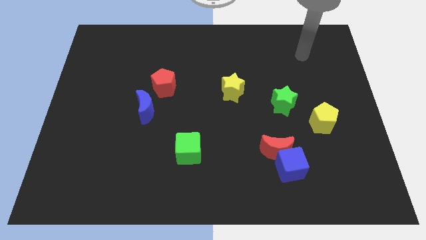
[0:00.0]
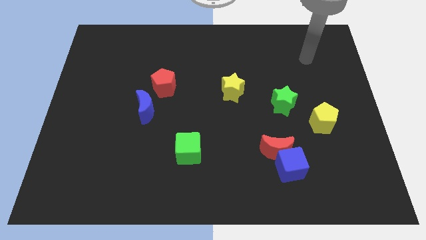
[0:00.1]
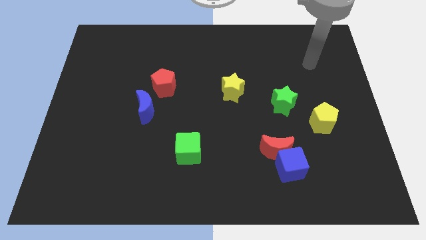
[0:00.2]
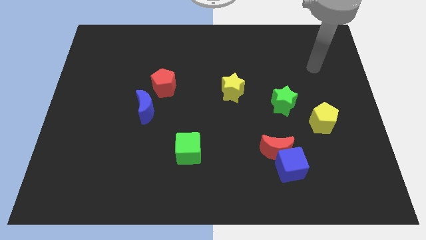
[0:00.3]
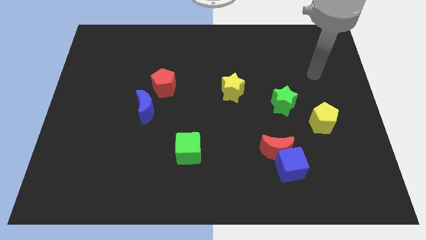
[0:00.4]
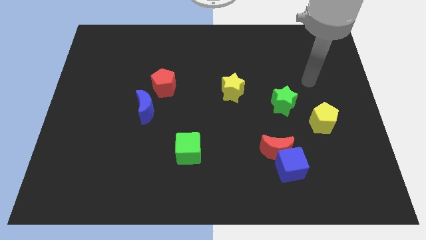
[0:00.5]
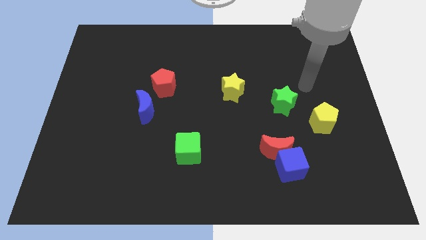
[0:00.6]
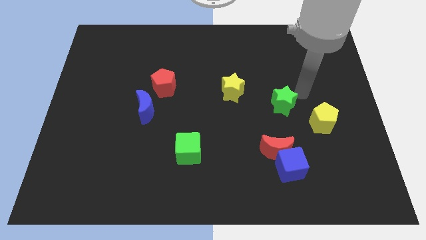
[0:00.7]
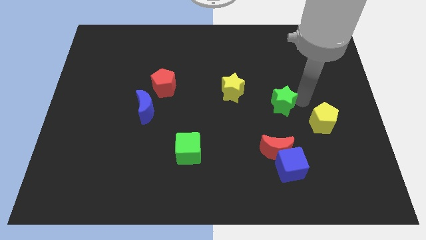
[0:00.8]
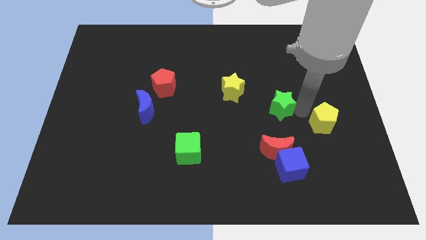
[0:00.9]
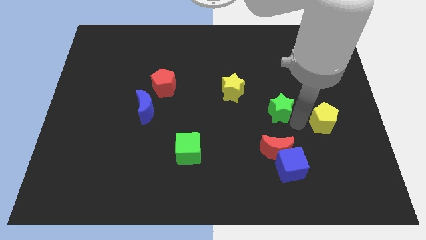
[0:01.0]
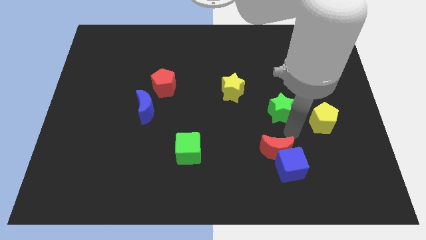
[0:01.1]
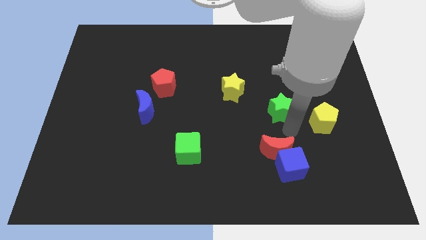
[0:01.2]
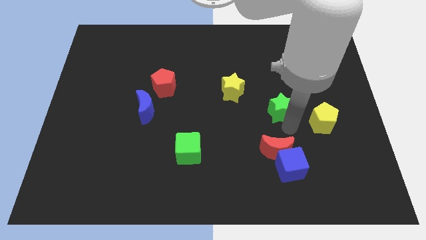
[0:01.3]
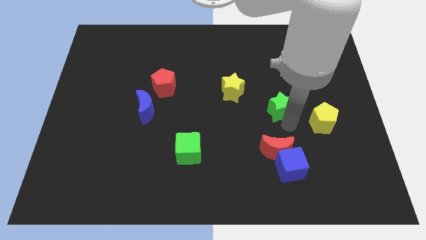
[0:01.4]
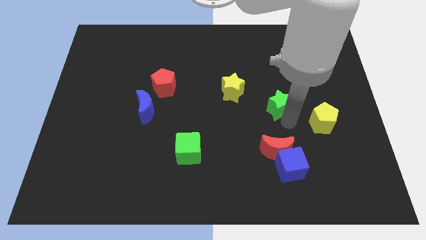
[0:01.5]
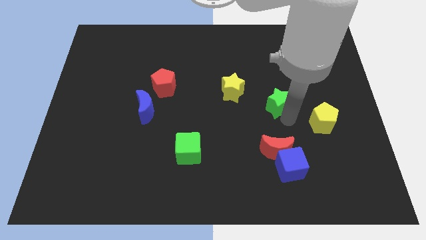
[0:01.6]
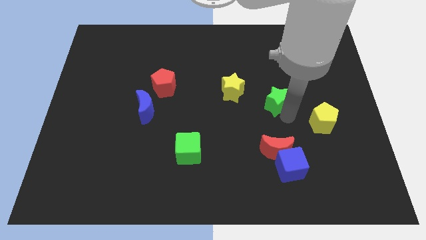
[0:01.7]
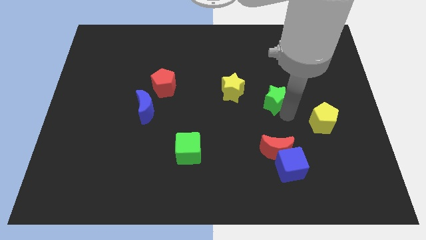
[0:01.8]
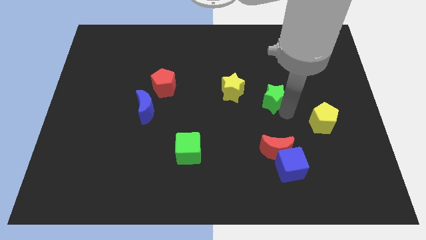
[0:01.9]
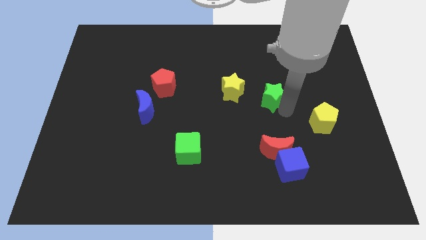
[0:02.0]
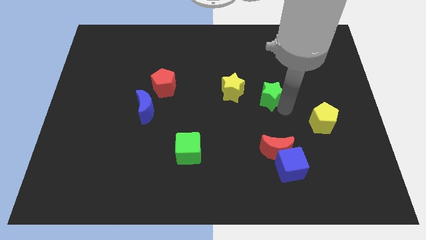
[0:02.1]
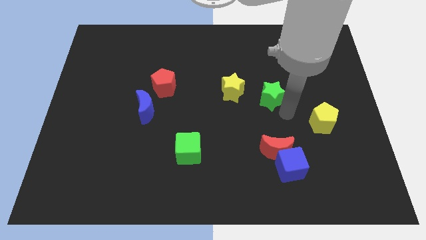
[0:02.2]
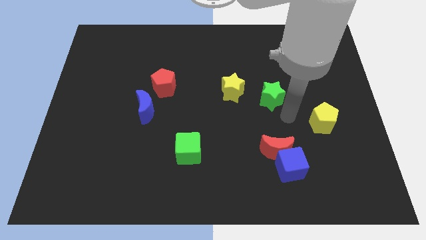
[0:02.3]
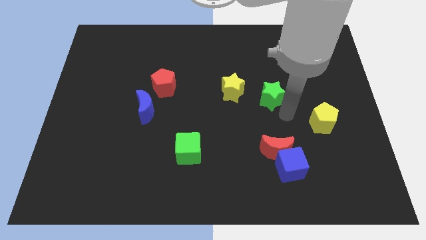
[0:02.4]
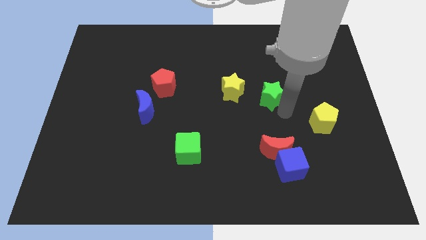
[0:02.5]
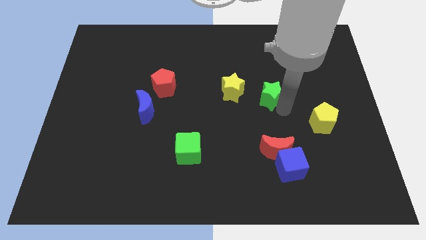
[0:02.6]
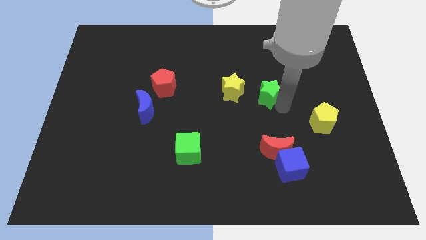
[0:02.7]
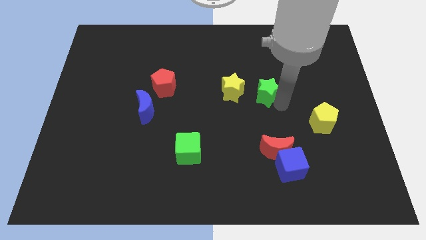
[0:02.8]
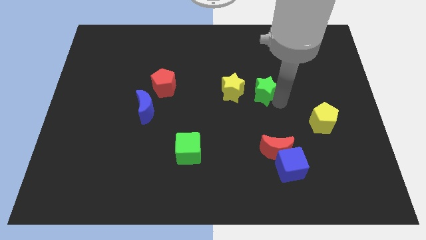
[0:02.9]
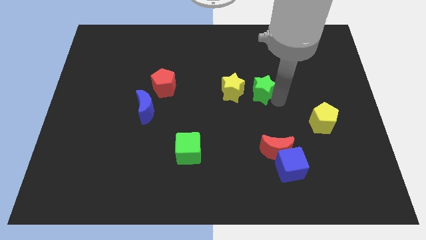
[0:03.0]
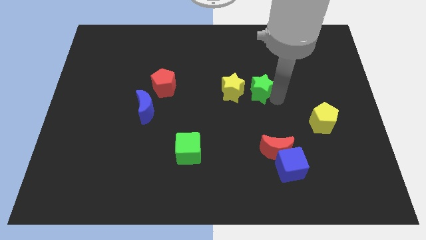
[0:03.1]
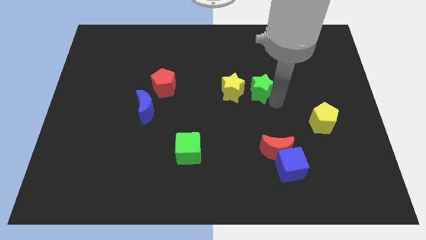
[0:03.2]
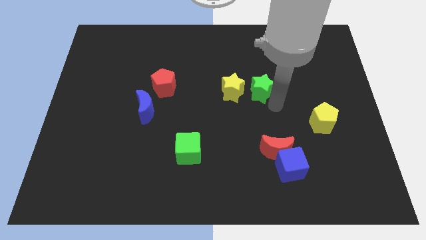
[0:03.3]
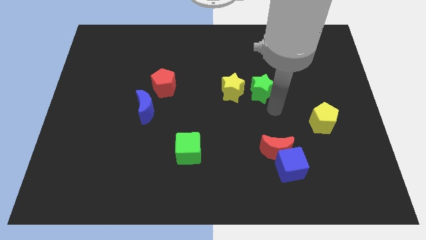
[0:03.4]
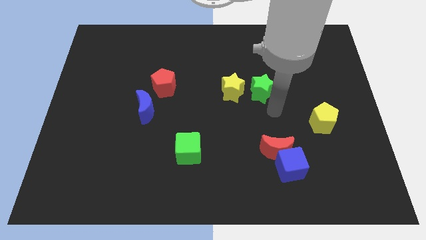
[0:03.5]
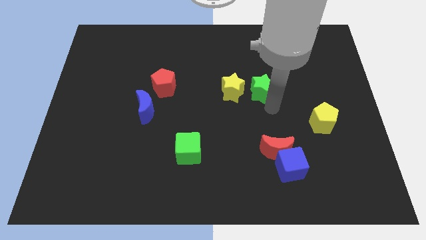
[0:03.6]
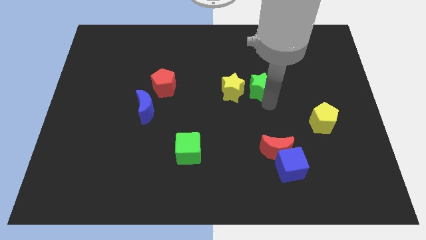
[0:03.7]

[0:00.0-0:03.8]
slide the green star a little upwards and then to the left

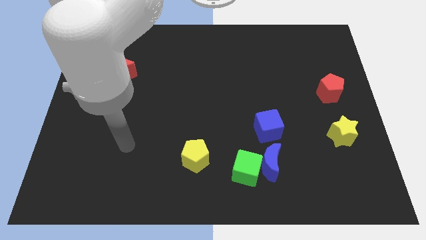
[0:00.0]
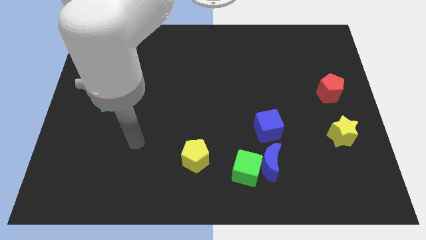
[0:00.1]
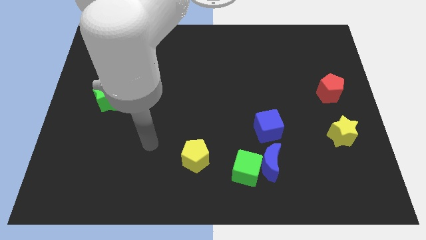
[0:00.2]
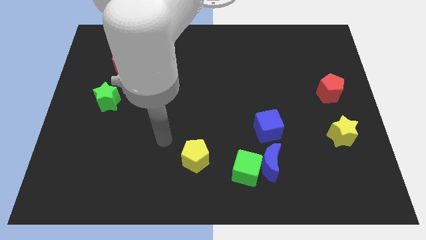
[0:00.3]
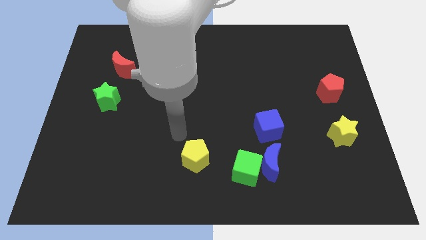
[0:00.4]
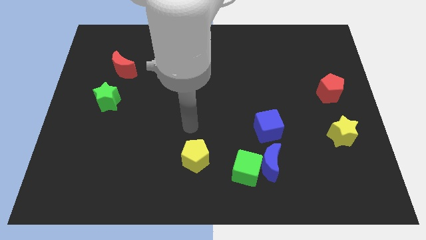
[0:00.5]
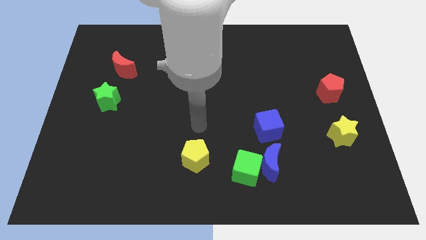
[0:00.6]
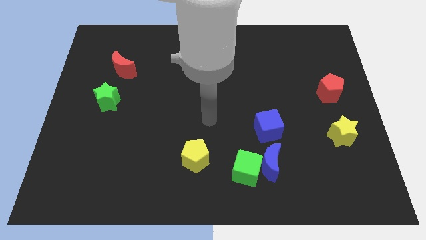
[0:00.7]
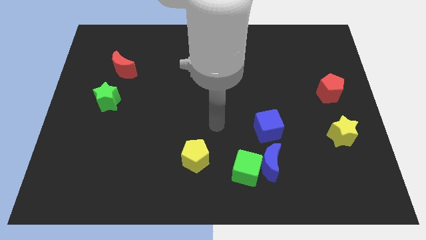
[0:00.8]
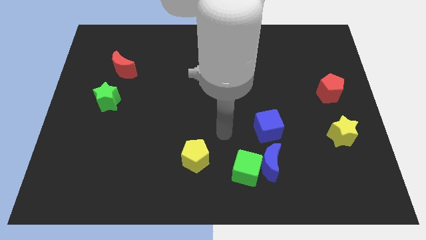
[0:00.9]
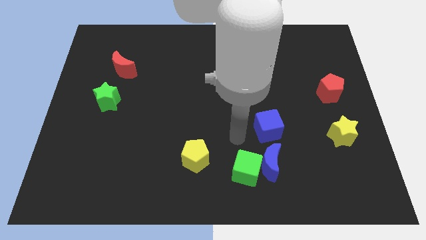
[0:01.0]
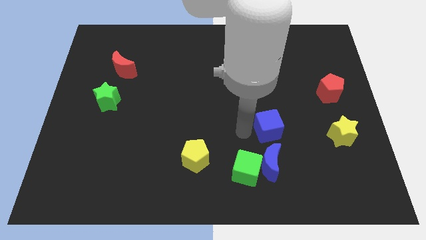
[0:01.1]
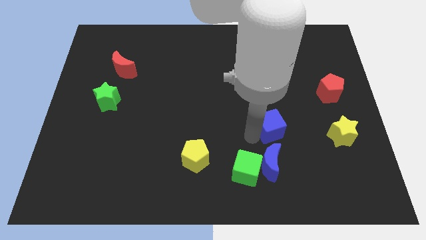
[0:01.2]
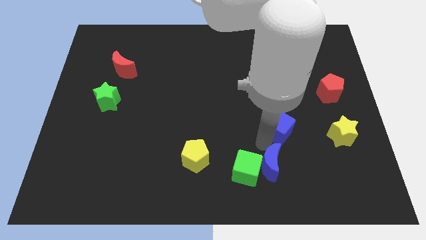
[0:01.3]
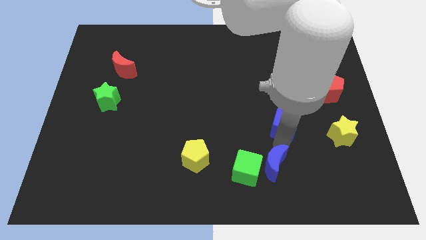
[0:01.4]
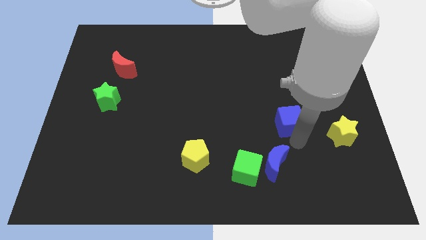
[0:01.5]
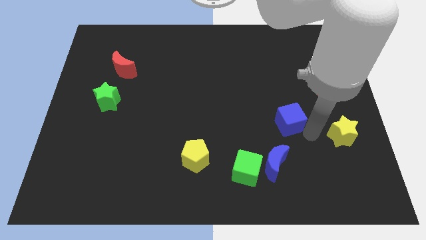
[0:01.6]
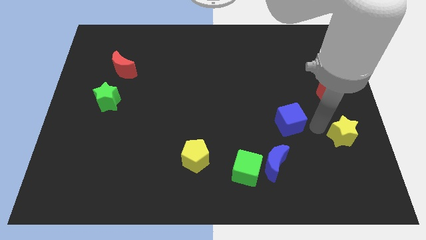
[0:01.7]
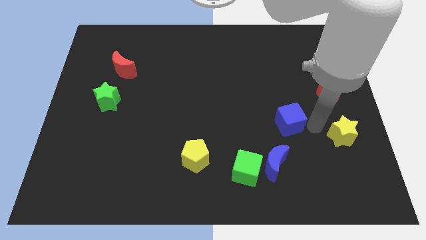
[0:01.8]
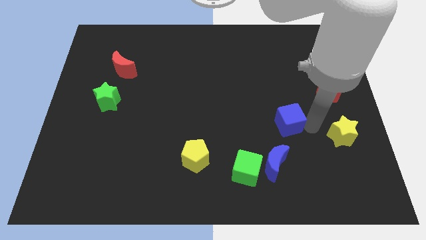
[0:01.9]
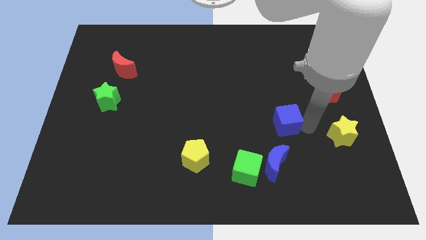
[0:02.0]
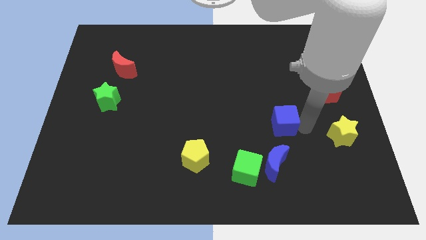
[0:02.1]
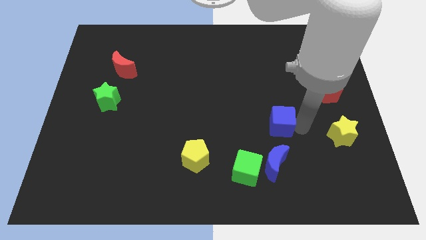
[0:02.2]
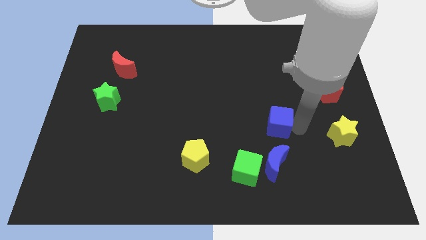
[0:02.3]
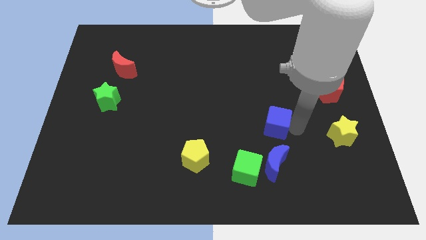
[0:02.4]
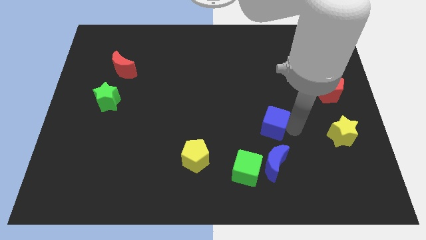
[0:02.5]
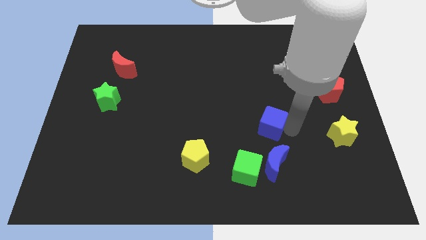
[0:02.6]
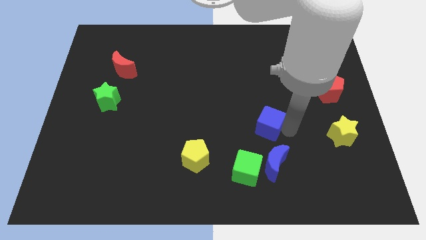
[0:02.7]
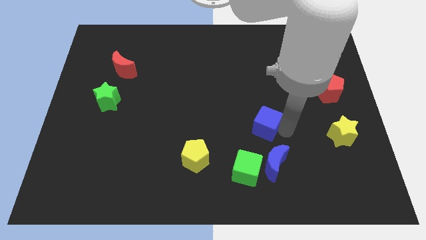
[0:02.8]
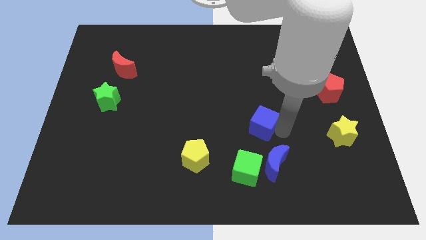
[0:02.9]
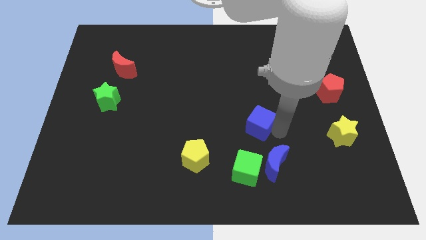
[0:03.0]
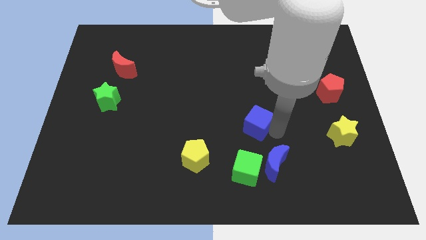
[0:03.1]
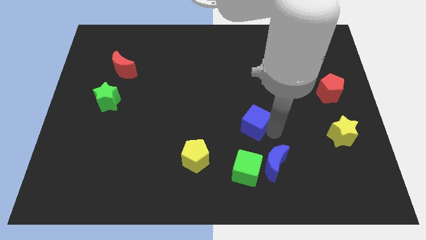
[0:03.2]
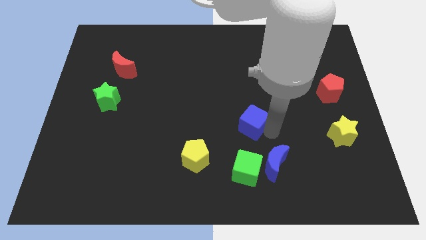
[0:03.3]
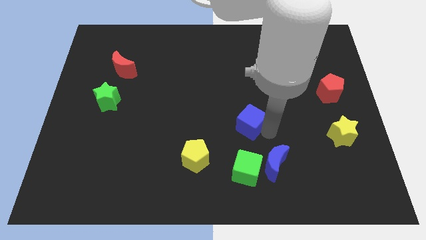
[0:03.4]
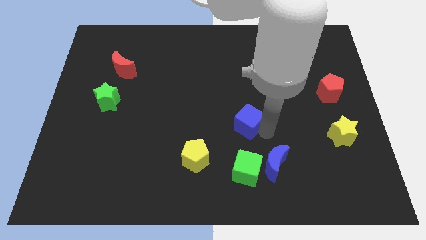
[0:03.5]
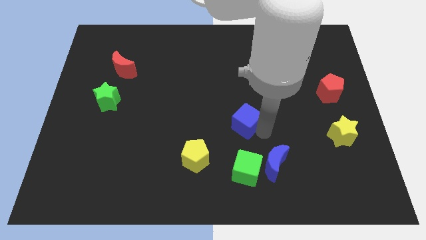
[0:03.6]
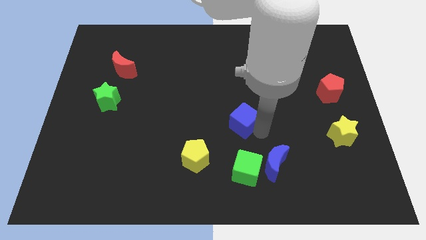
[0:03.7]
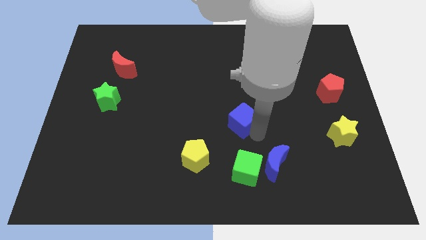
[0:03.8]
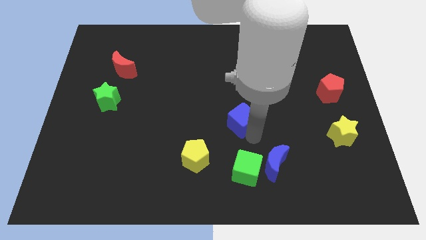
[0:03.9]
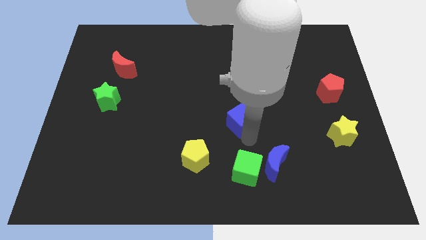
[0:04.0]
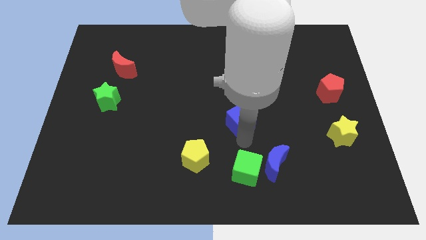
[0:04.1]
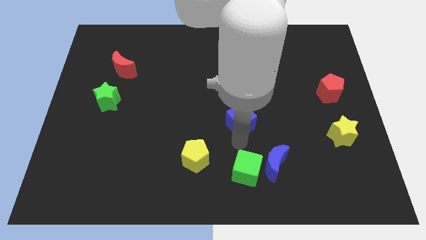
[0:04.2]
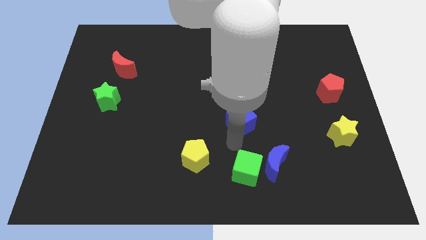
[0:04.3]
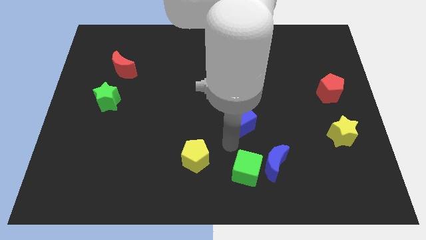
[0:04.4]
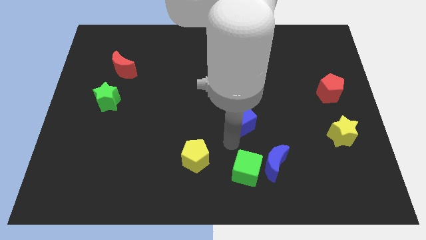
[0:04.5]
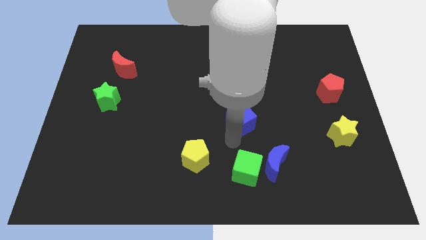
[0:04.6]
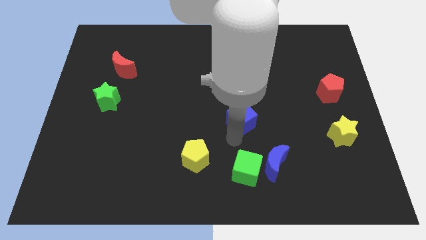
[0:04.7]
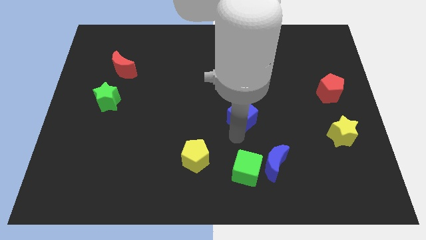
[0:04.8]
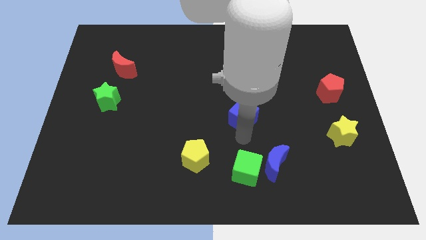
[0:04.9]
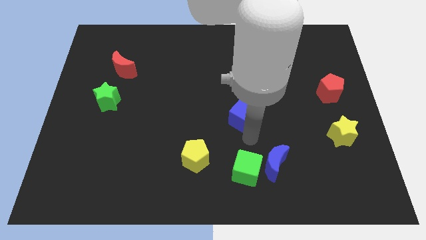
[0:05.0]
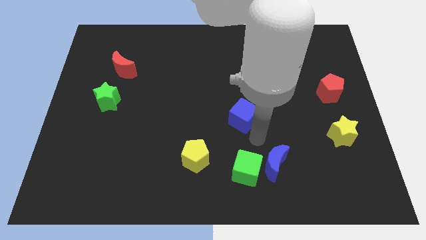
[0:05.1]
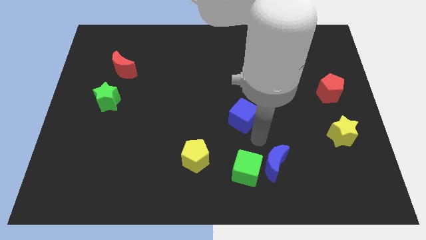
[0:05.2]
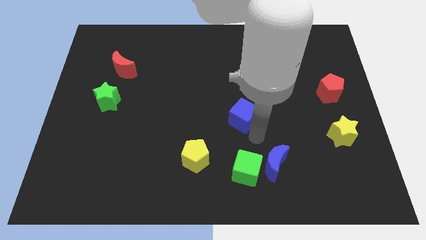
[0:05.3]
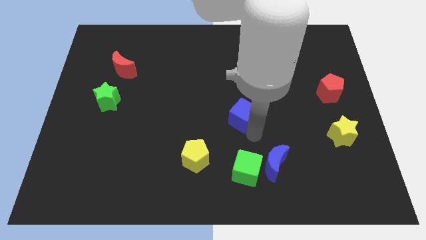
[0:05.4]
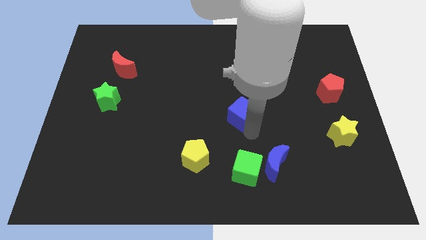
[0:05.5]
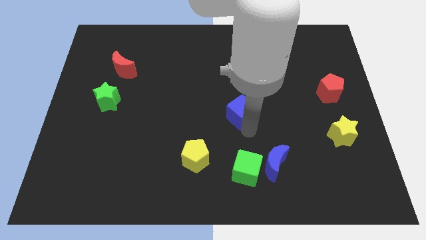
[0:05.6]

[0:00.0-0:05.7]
move the blue cube upwards and then left a little bit
